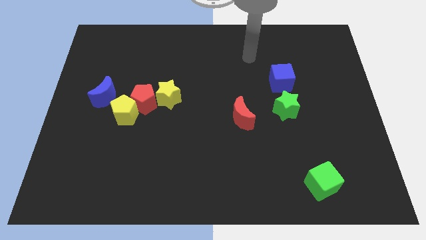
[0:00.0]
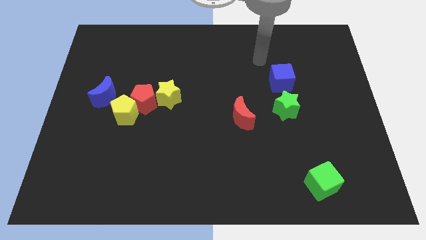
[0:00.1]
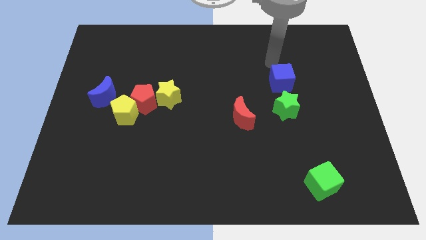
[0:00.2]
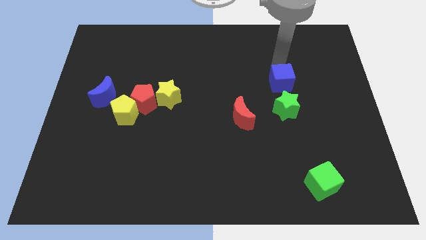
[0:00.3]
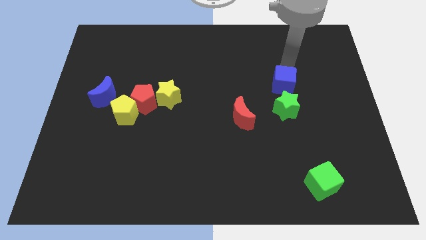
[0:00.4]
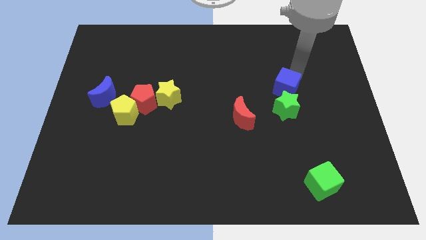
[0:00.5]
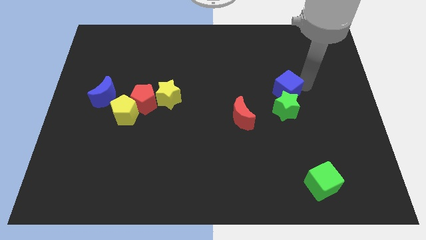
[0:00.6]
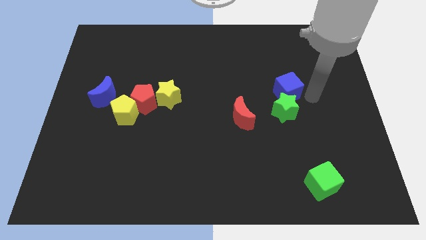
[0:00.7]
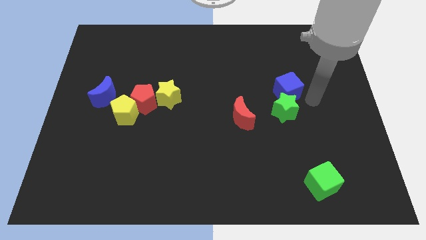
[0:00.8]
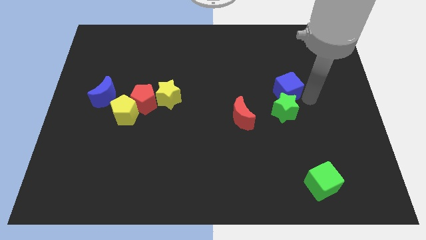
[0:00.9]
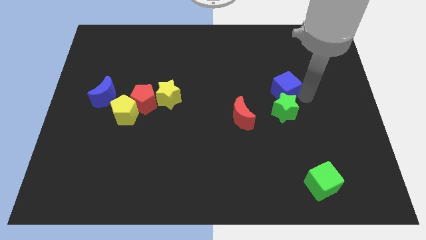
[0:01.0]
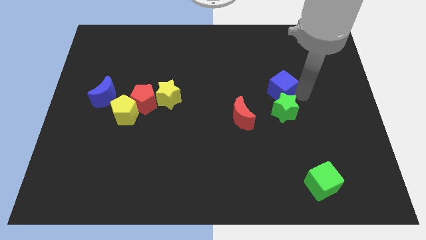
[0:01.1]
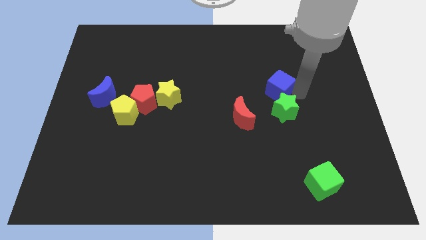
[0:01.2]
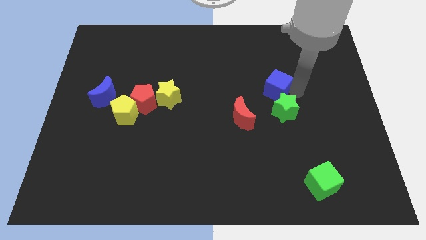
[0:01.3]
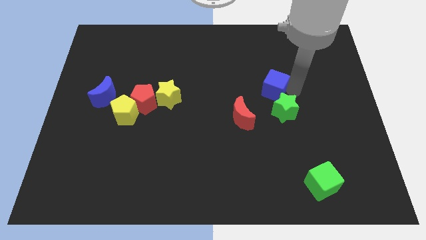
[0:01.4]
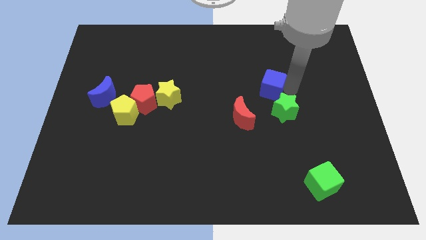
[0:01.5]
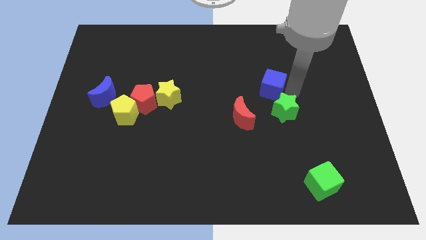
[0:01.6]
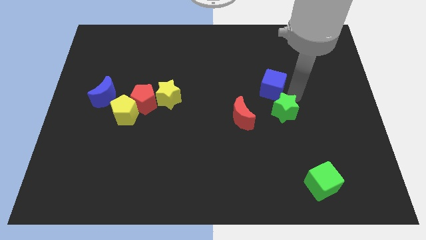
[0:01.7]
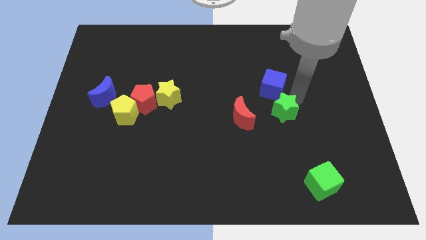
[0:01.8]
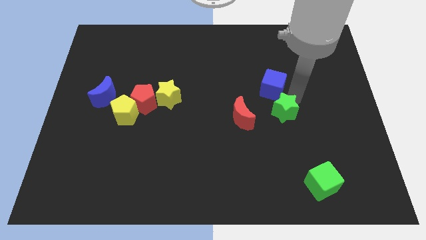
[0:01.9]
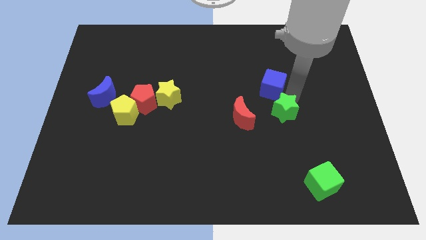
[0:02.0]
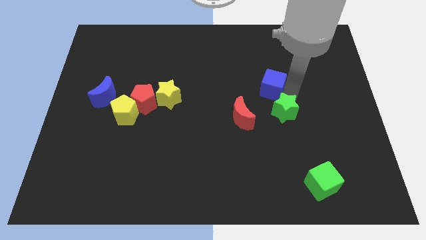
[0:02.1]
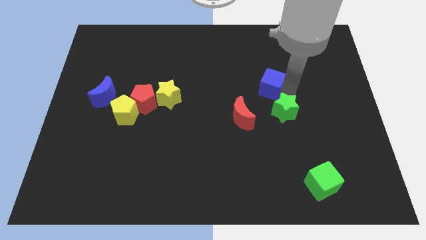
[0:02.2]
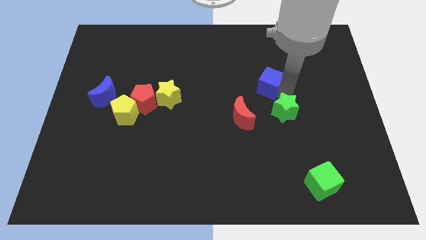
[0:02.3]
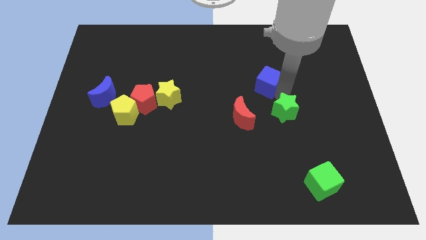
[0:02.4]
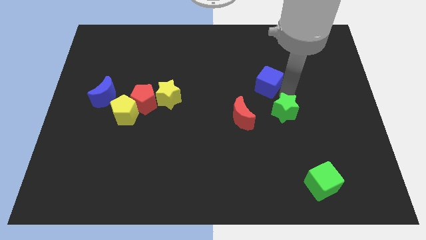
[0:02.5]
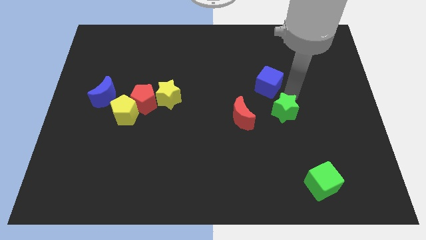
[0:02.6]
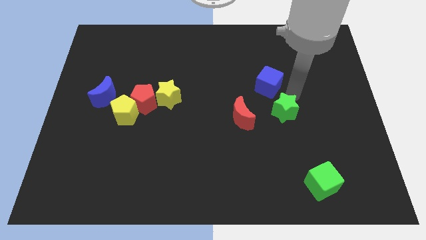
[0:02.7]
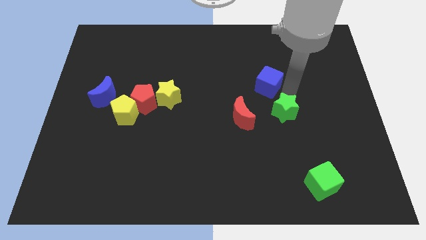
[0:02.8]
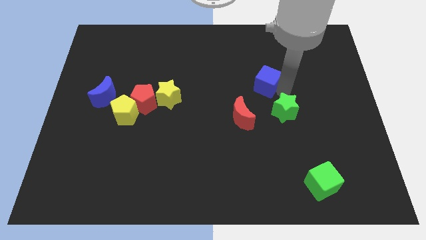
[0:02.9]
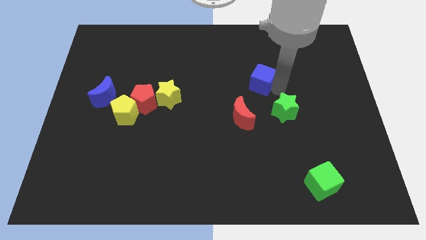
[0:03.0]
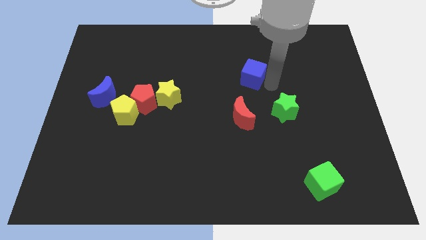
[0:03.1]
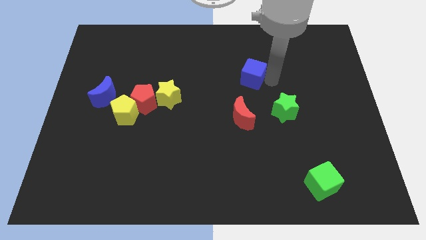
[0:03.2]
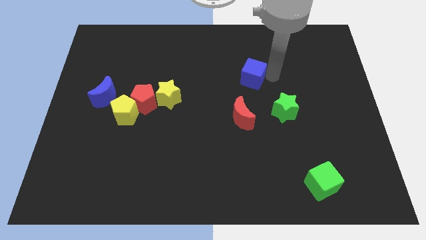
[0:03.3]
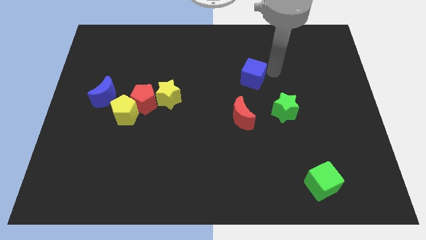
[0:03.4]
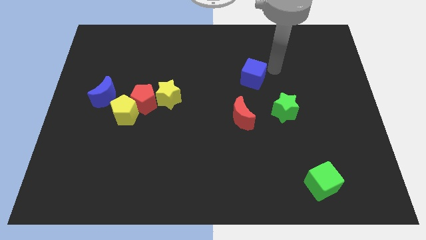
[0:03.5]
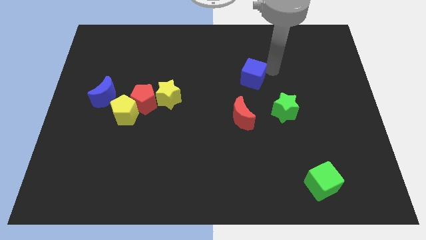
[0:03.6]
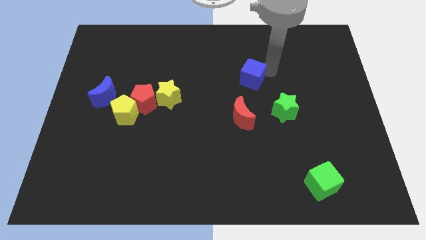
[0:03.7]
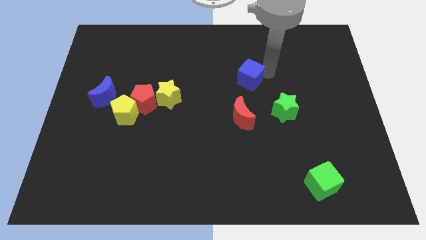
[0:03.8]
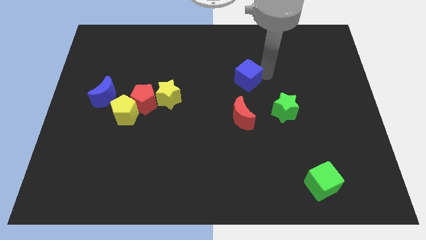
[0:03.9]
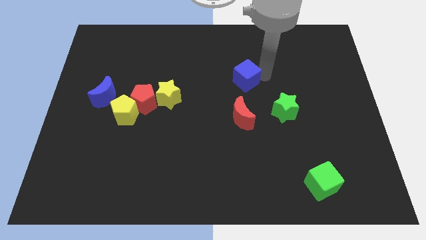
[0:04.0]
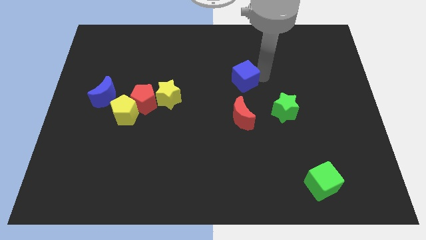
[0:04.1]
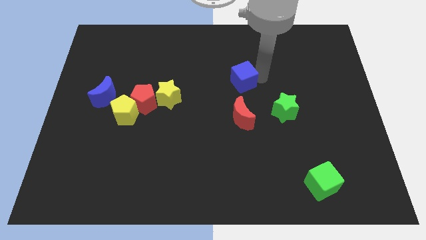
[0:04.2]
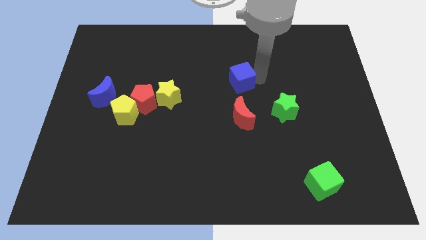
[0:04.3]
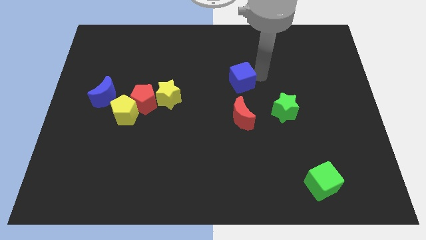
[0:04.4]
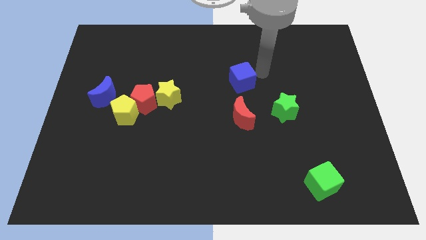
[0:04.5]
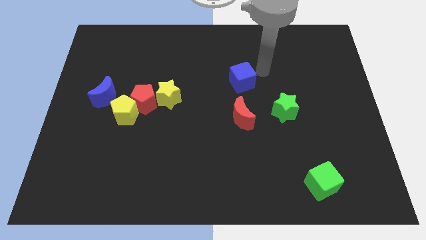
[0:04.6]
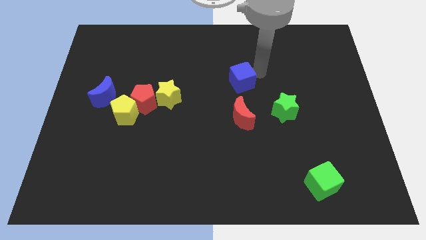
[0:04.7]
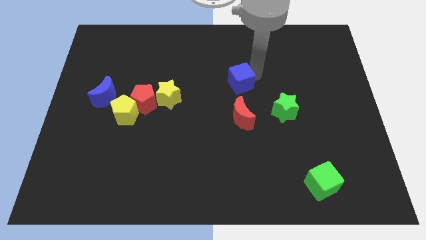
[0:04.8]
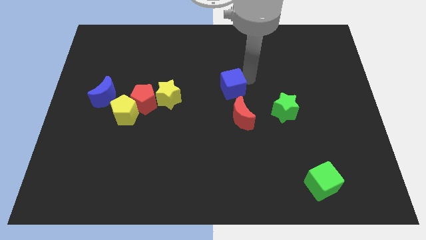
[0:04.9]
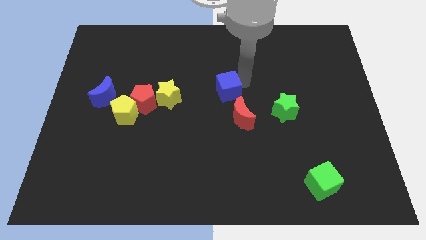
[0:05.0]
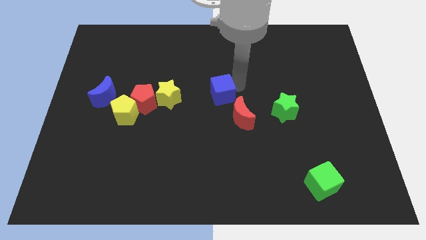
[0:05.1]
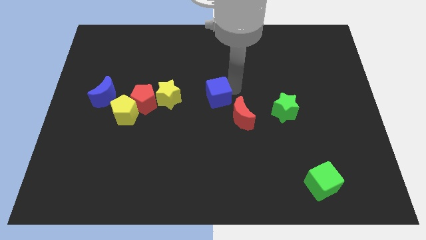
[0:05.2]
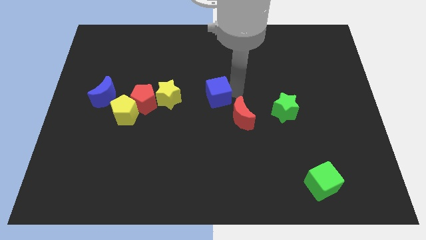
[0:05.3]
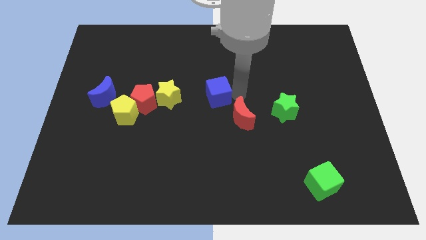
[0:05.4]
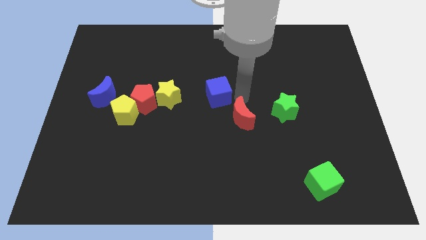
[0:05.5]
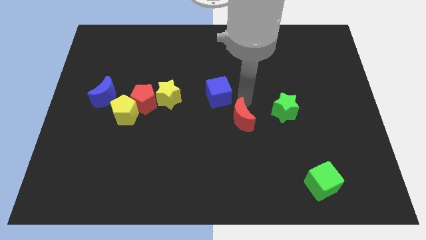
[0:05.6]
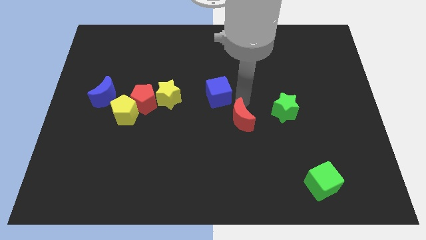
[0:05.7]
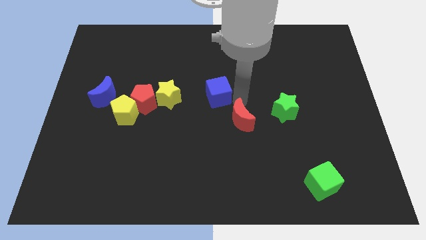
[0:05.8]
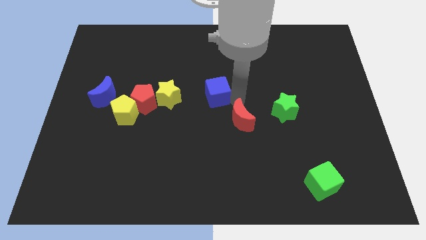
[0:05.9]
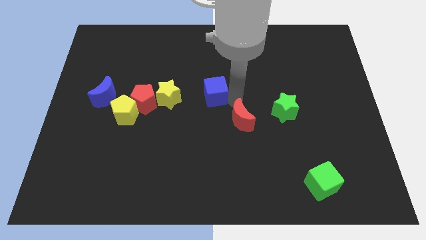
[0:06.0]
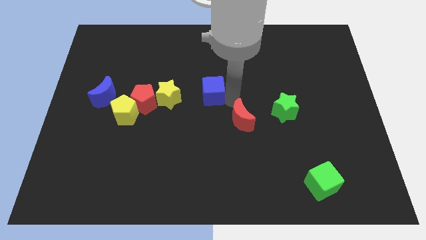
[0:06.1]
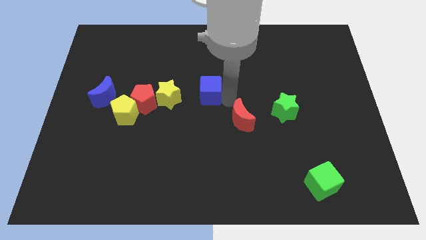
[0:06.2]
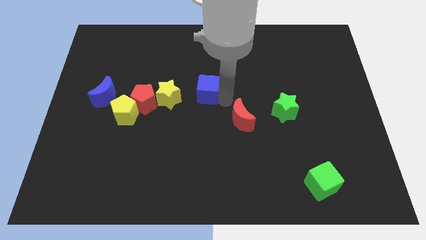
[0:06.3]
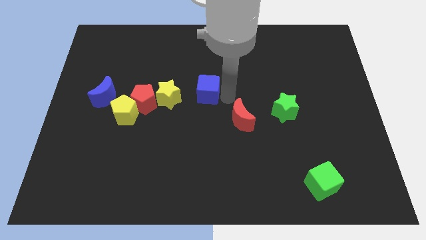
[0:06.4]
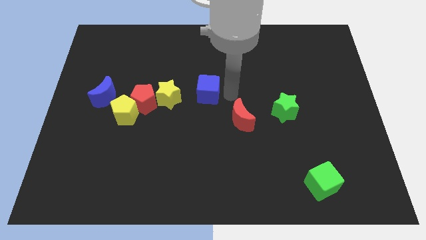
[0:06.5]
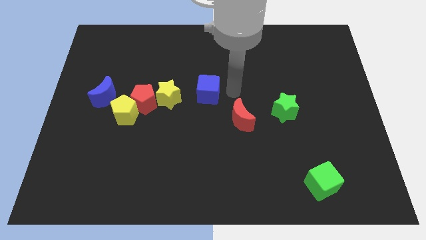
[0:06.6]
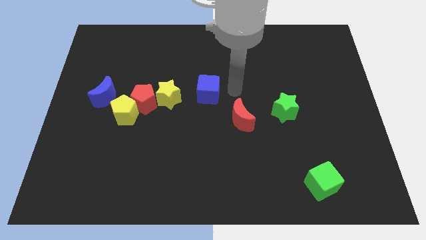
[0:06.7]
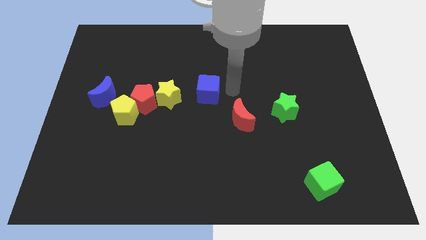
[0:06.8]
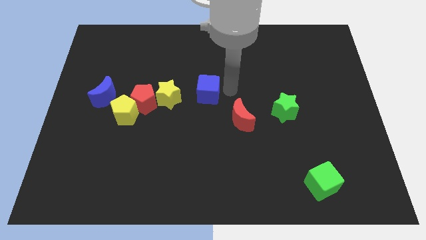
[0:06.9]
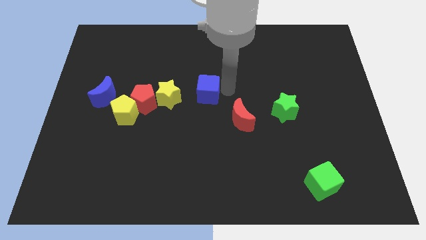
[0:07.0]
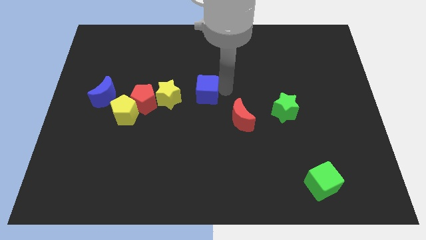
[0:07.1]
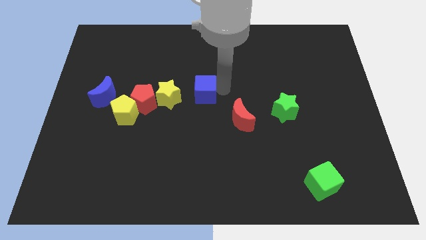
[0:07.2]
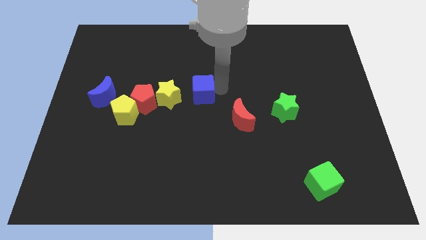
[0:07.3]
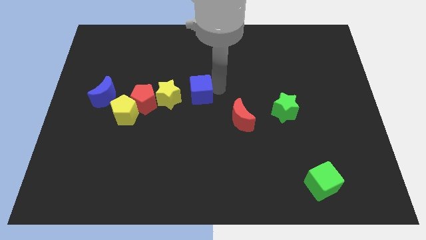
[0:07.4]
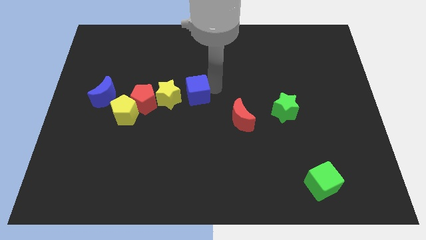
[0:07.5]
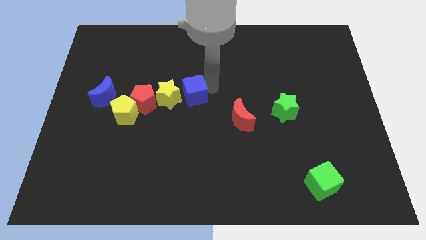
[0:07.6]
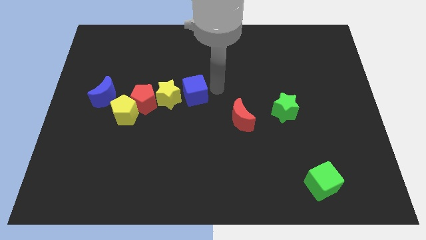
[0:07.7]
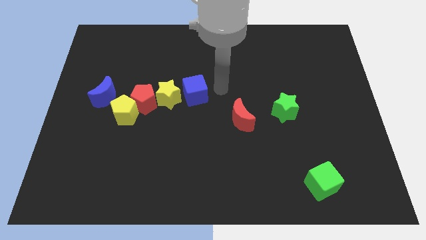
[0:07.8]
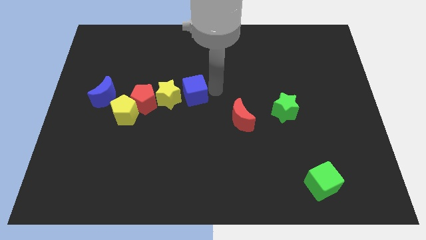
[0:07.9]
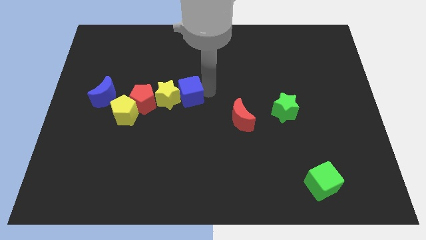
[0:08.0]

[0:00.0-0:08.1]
put the blue cube next to the yellow star
